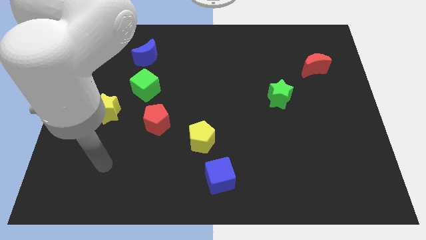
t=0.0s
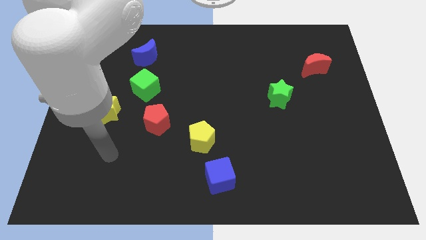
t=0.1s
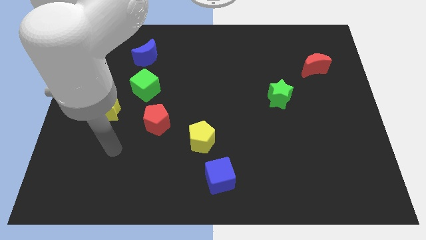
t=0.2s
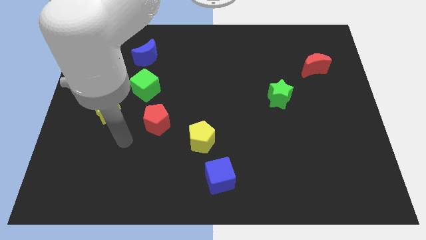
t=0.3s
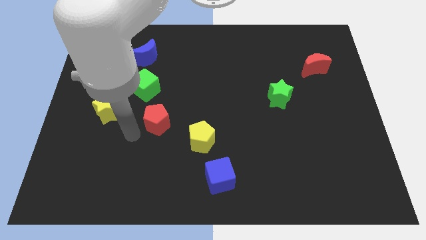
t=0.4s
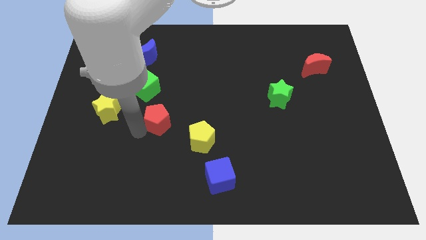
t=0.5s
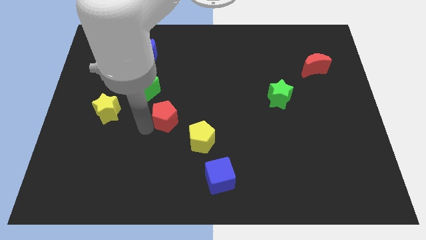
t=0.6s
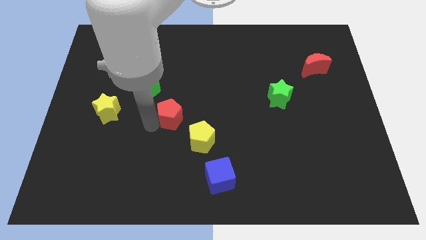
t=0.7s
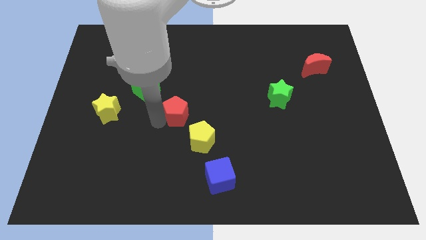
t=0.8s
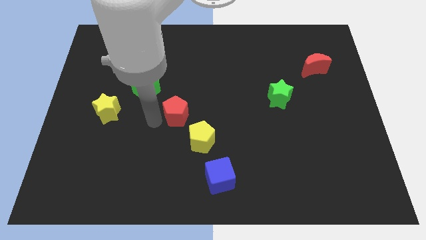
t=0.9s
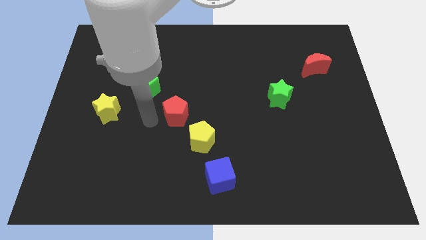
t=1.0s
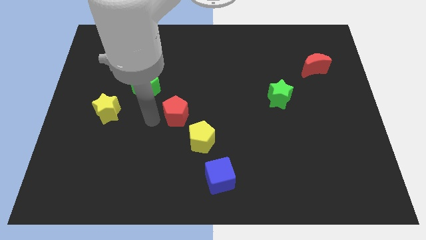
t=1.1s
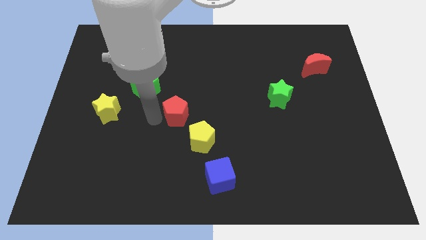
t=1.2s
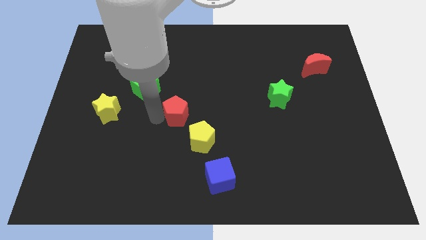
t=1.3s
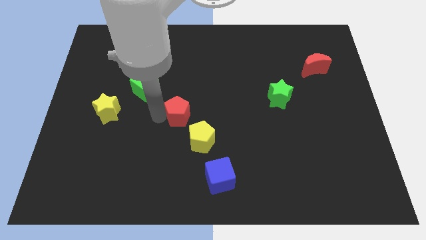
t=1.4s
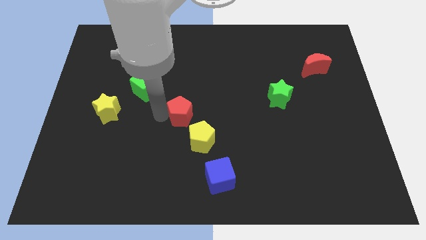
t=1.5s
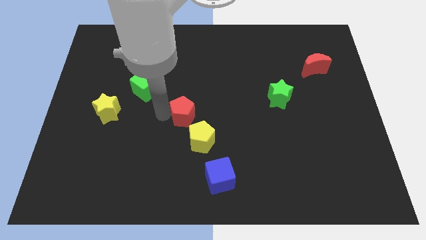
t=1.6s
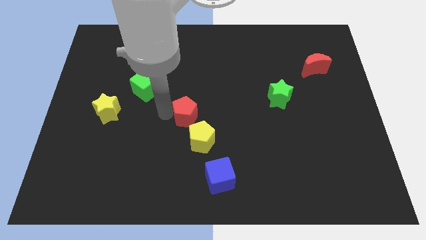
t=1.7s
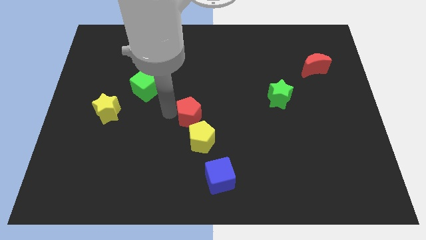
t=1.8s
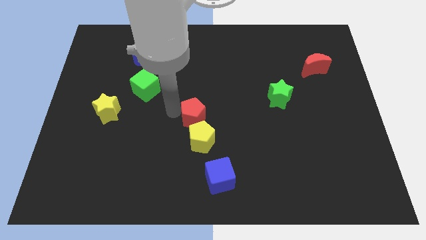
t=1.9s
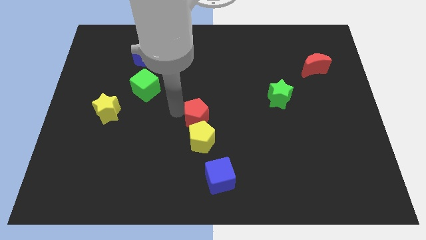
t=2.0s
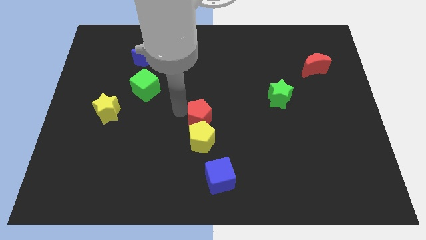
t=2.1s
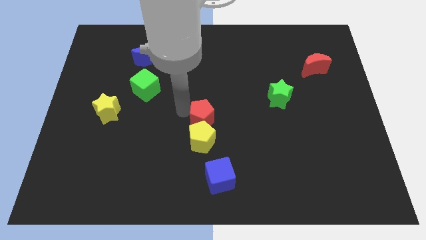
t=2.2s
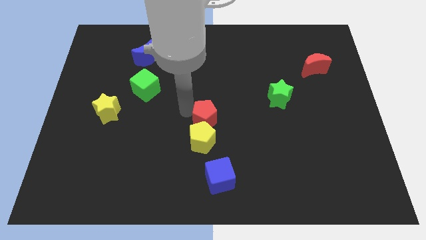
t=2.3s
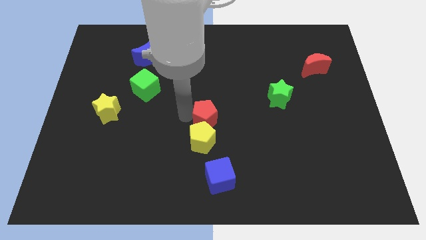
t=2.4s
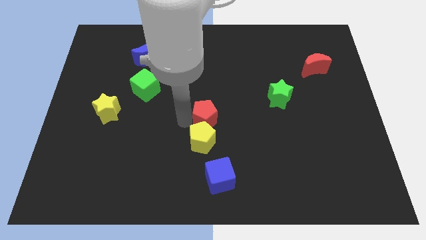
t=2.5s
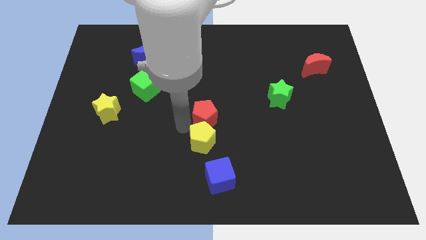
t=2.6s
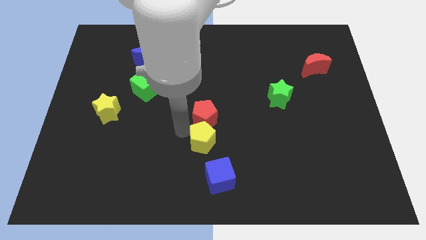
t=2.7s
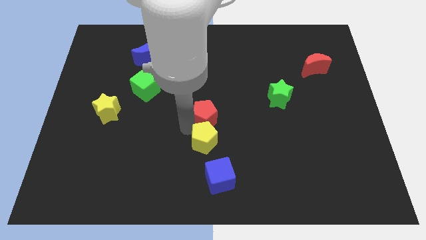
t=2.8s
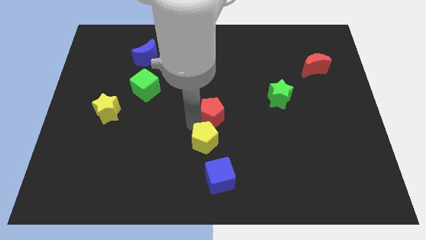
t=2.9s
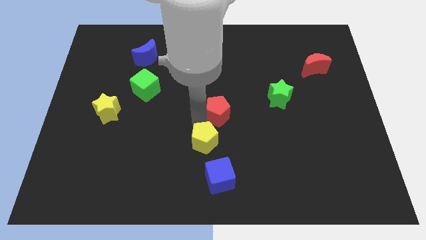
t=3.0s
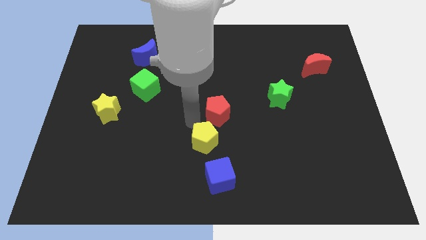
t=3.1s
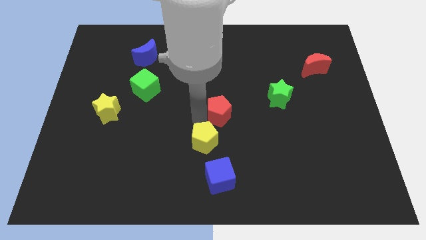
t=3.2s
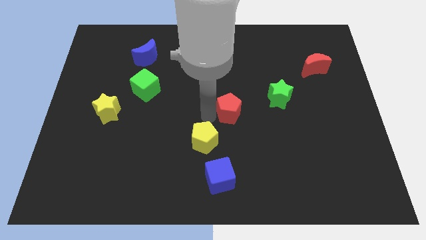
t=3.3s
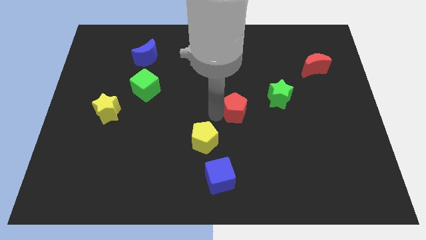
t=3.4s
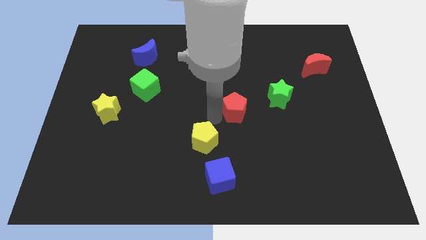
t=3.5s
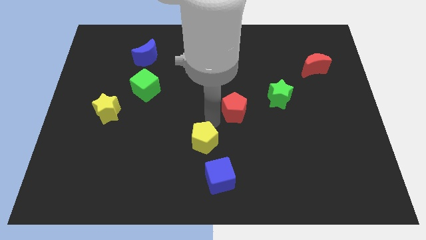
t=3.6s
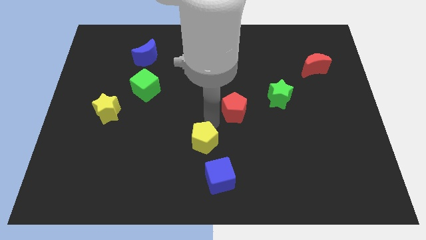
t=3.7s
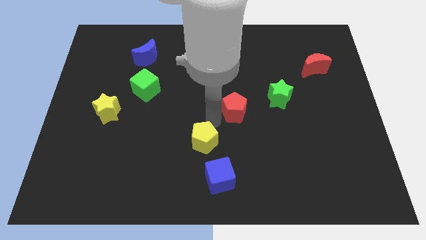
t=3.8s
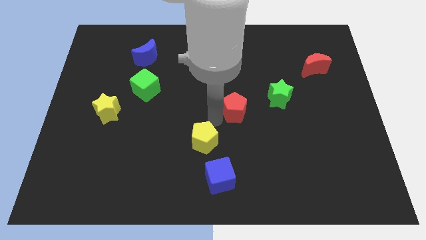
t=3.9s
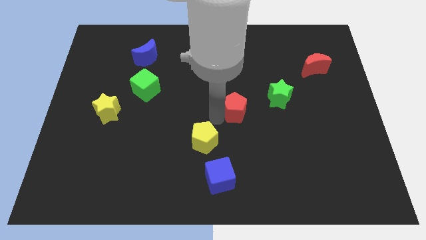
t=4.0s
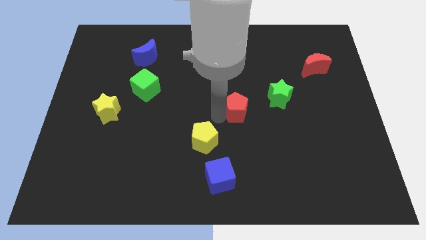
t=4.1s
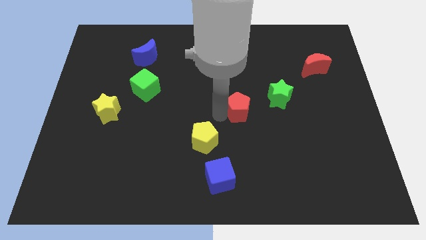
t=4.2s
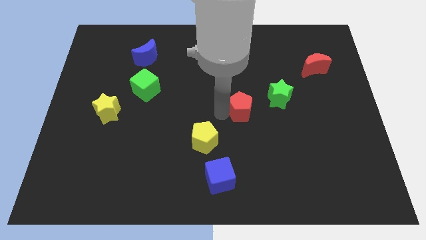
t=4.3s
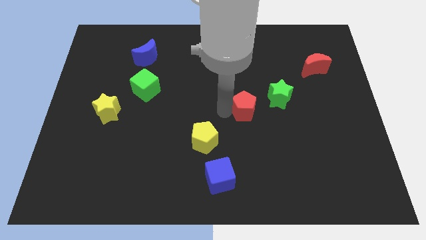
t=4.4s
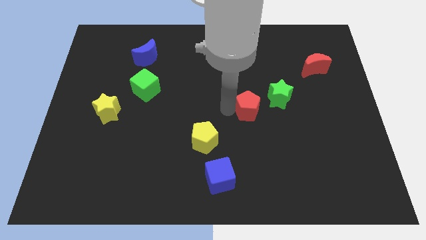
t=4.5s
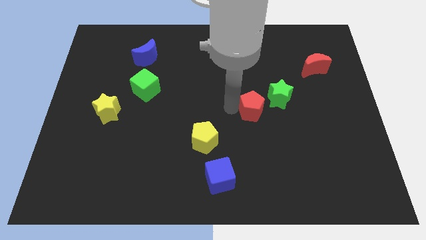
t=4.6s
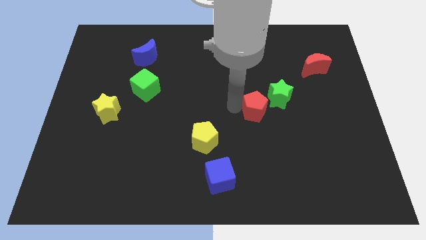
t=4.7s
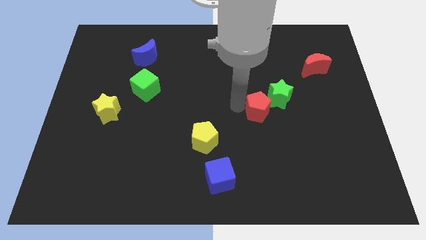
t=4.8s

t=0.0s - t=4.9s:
move the red pentagon to the green star
